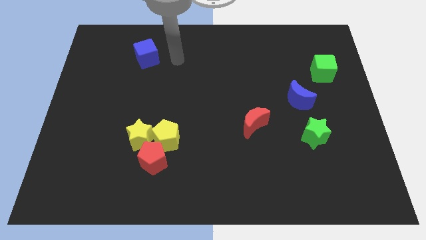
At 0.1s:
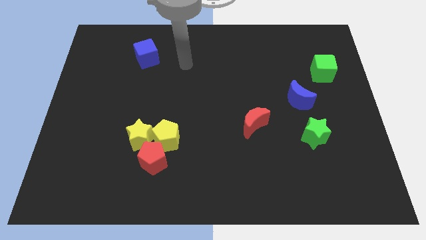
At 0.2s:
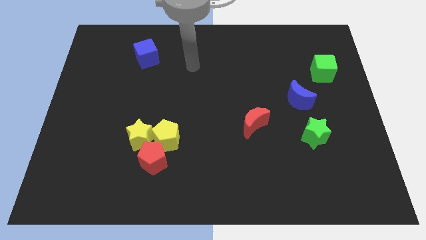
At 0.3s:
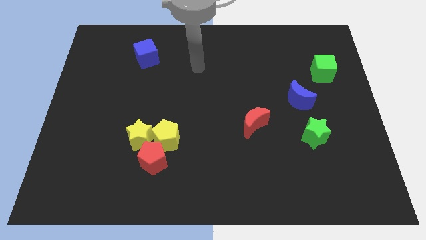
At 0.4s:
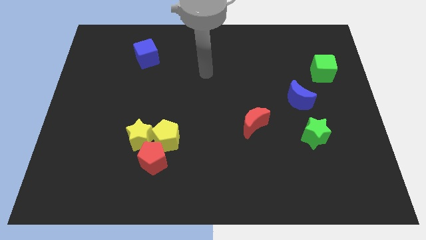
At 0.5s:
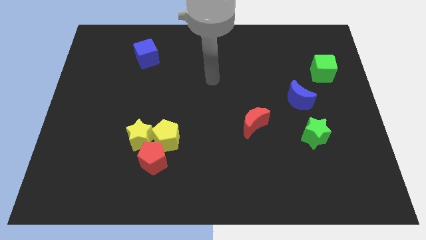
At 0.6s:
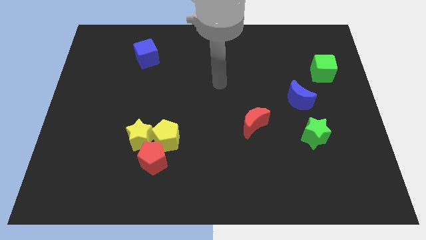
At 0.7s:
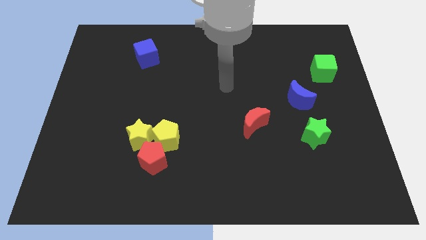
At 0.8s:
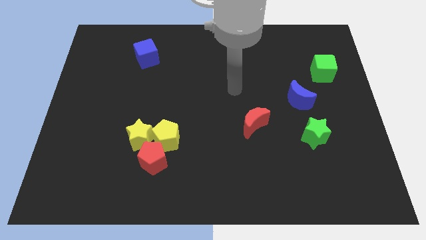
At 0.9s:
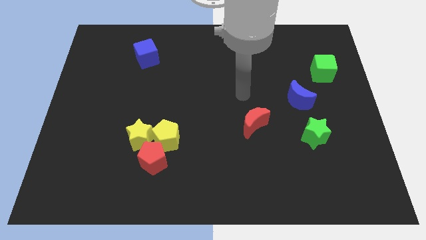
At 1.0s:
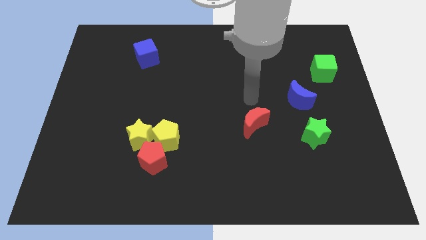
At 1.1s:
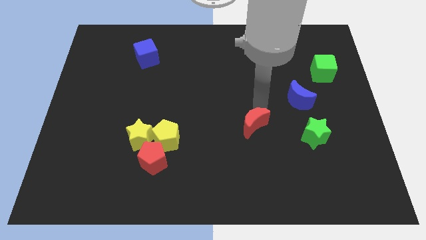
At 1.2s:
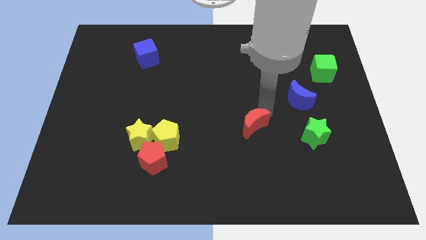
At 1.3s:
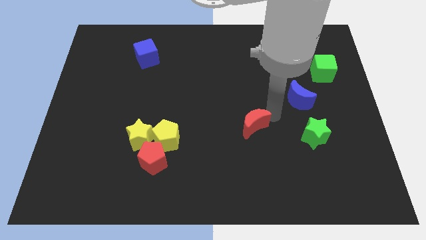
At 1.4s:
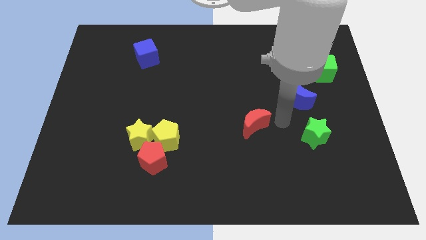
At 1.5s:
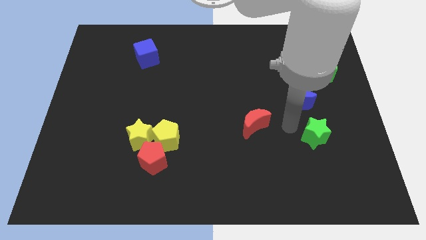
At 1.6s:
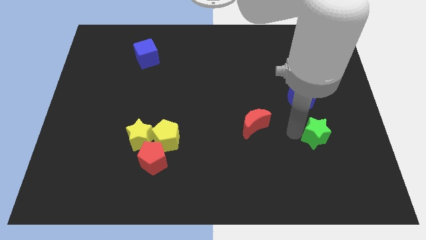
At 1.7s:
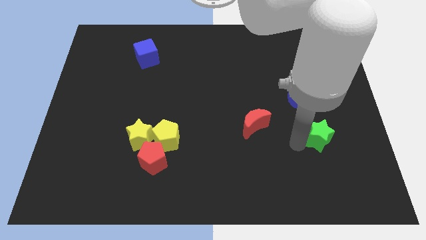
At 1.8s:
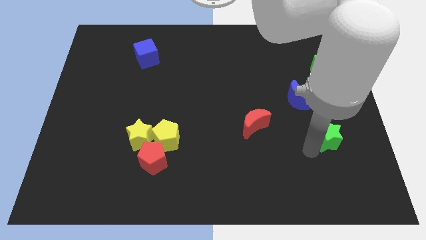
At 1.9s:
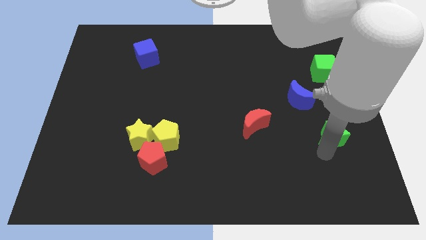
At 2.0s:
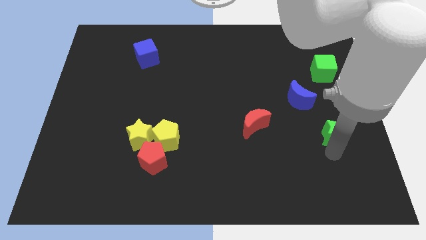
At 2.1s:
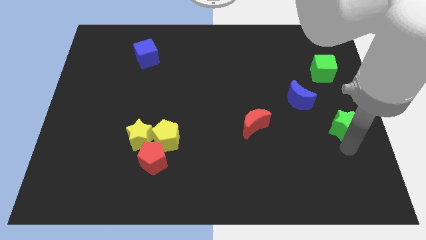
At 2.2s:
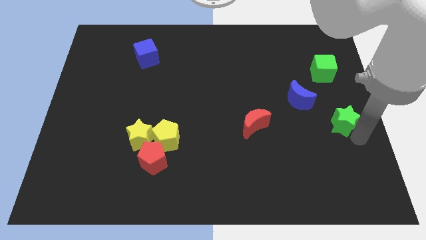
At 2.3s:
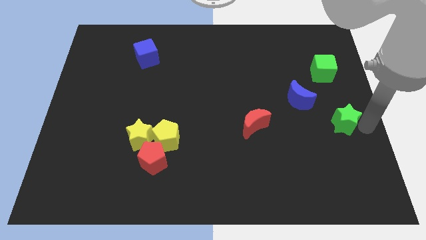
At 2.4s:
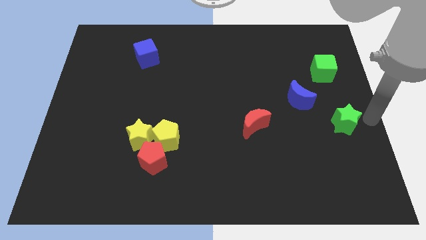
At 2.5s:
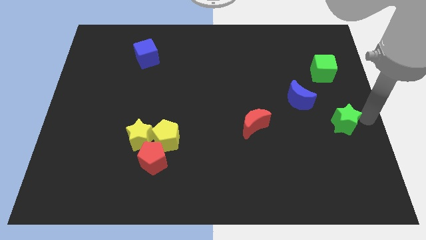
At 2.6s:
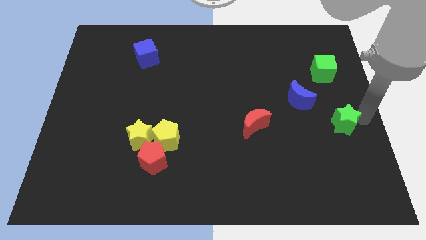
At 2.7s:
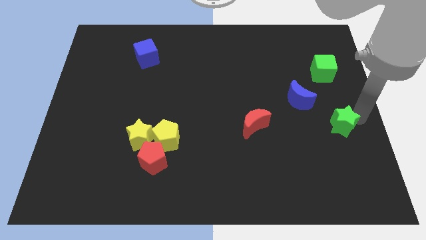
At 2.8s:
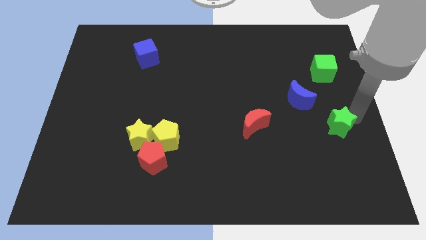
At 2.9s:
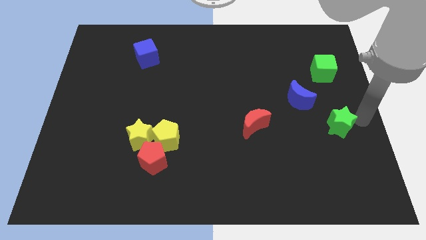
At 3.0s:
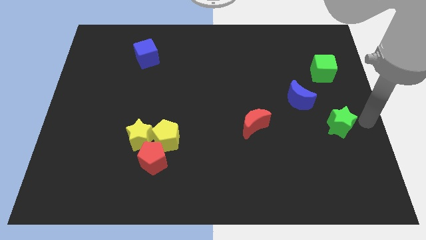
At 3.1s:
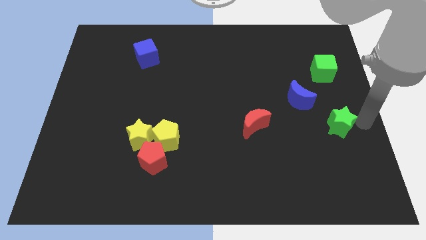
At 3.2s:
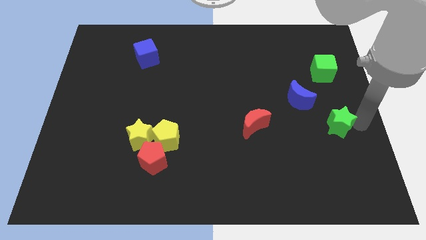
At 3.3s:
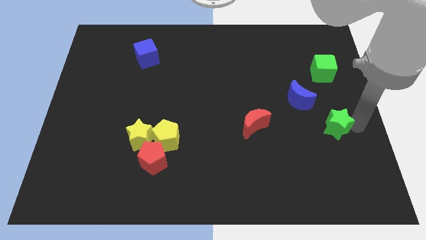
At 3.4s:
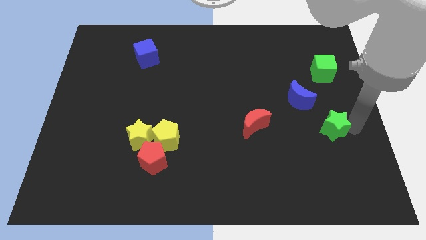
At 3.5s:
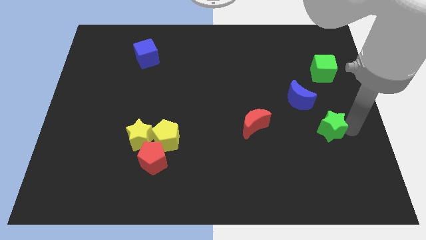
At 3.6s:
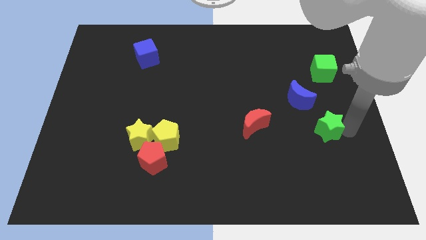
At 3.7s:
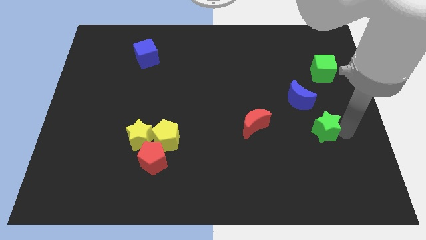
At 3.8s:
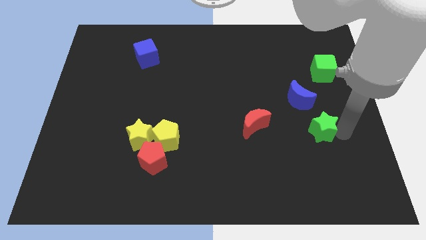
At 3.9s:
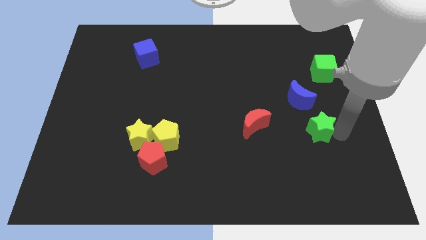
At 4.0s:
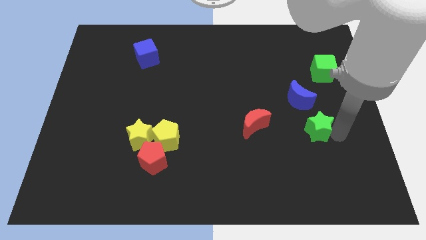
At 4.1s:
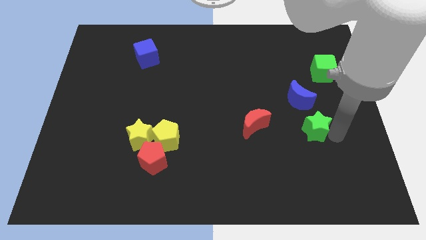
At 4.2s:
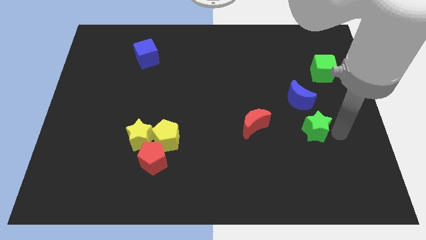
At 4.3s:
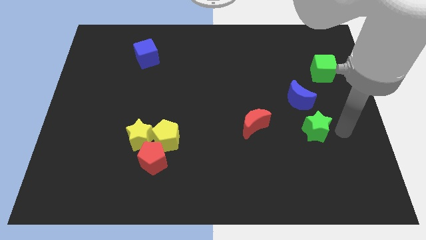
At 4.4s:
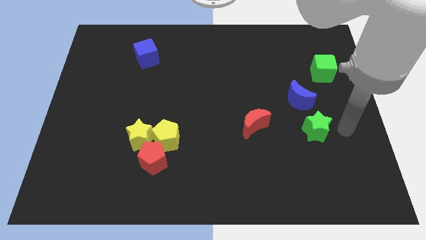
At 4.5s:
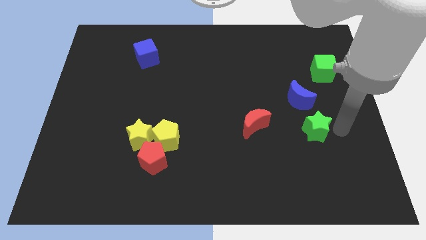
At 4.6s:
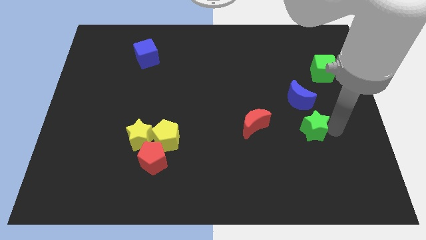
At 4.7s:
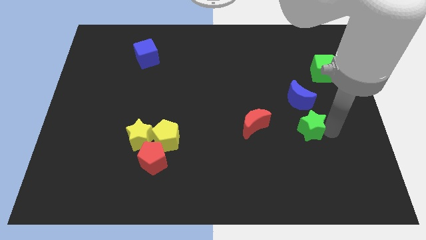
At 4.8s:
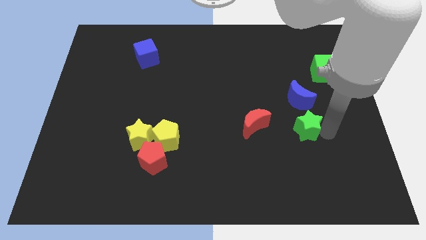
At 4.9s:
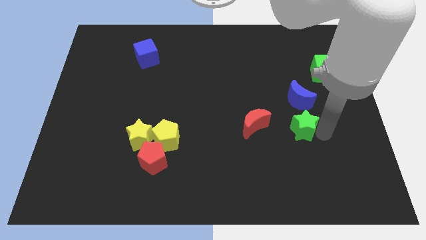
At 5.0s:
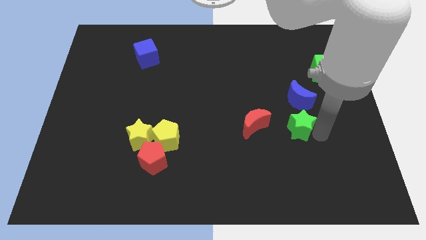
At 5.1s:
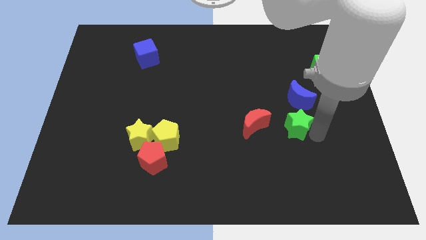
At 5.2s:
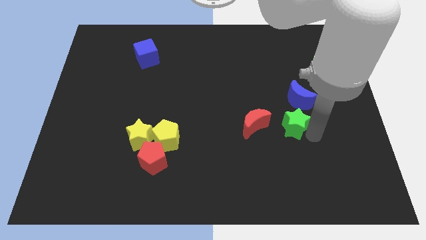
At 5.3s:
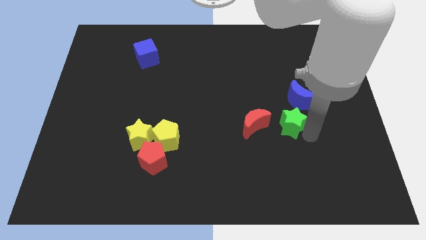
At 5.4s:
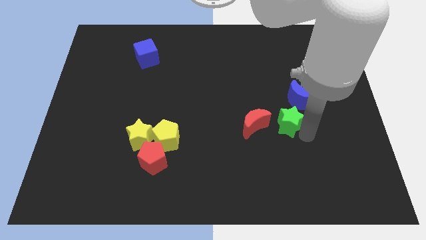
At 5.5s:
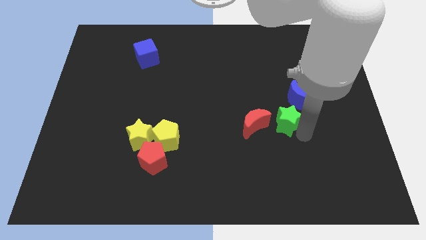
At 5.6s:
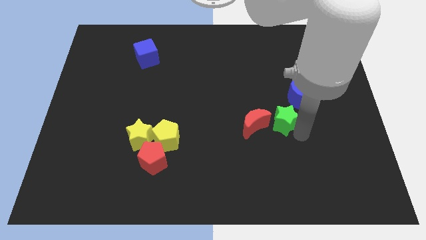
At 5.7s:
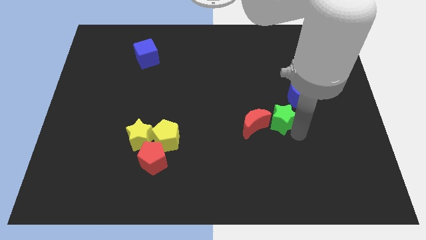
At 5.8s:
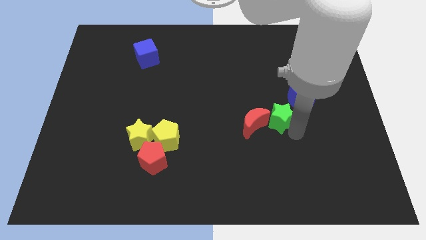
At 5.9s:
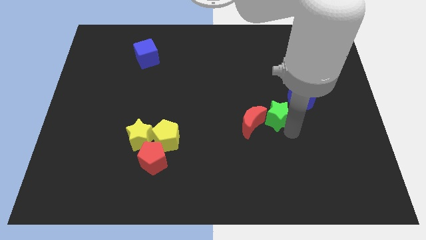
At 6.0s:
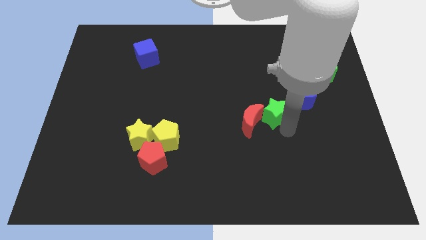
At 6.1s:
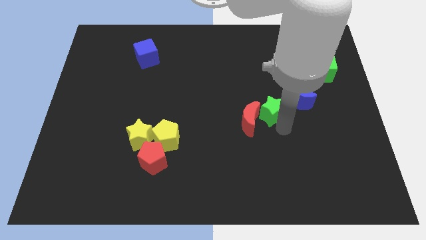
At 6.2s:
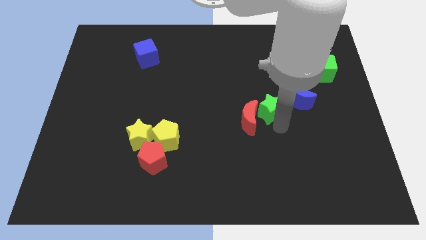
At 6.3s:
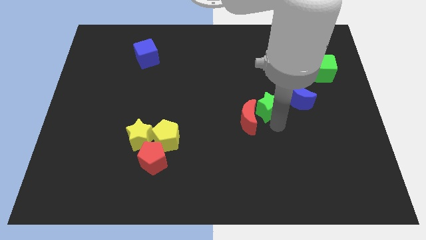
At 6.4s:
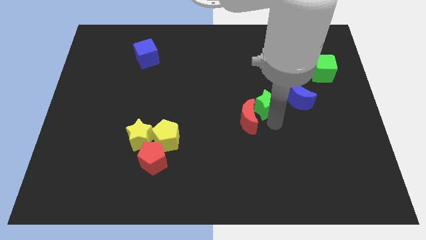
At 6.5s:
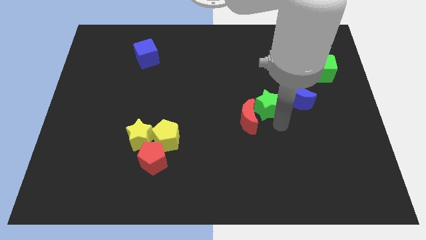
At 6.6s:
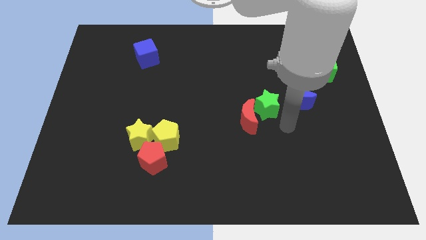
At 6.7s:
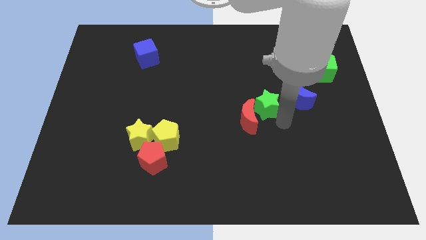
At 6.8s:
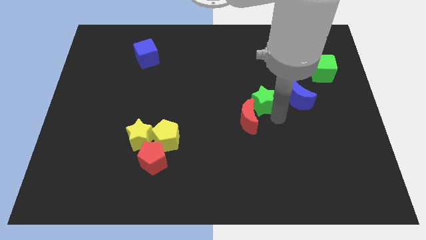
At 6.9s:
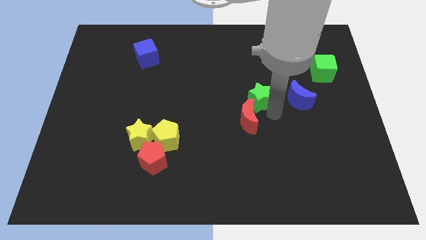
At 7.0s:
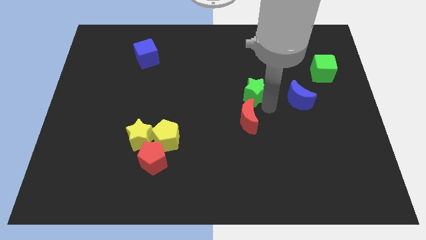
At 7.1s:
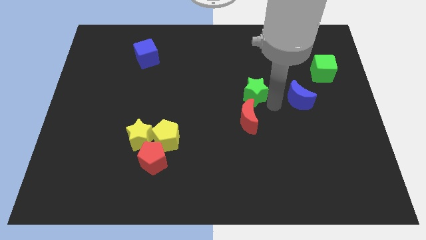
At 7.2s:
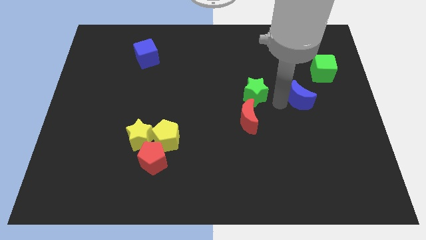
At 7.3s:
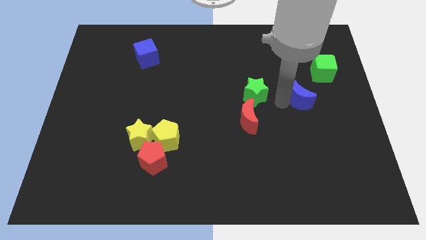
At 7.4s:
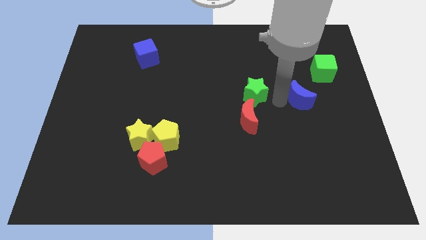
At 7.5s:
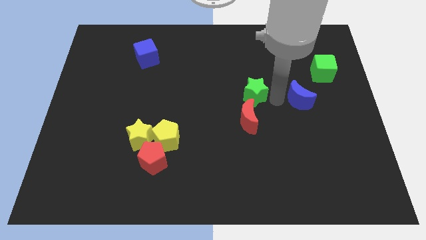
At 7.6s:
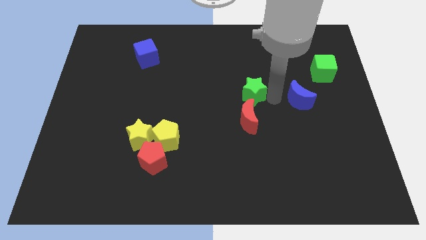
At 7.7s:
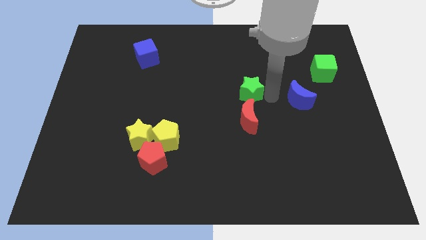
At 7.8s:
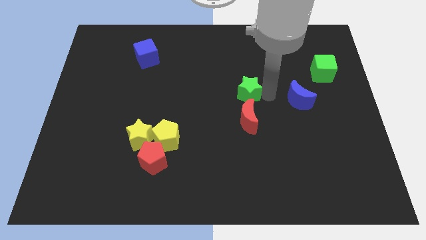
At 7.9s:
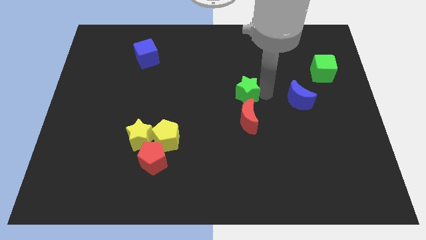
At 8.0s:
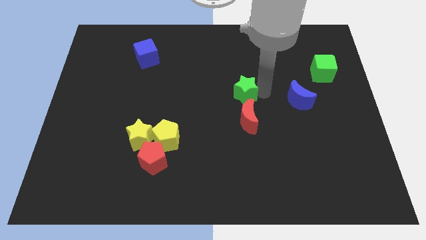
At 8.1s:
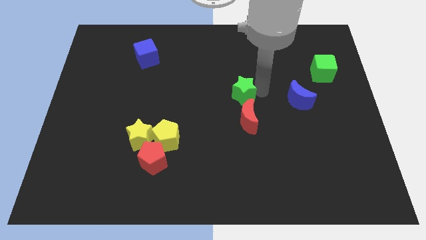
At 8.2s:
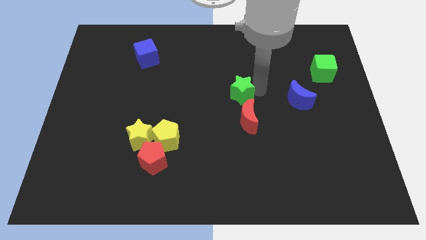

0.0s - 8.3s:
move the green star up and left diagonally
